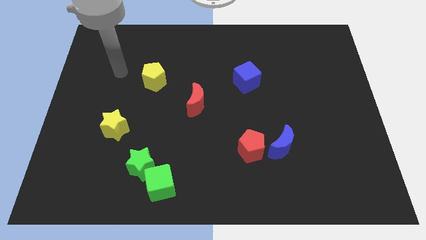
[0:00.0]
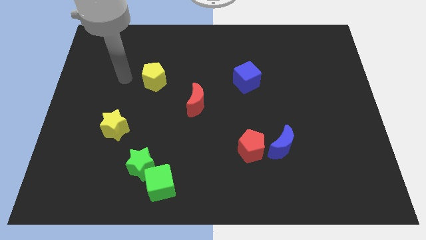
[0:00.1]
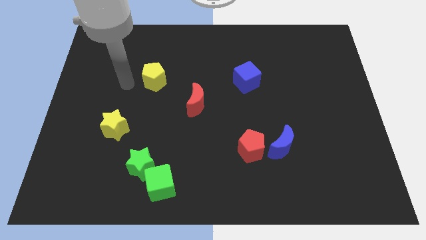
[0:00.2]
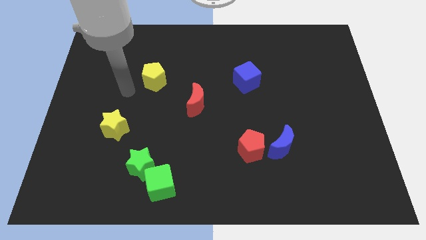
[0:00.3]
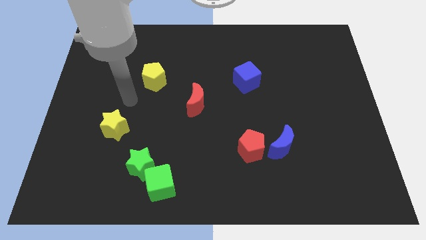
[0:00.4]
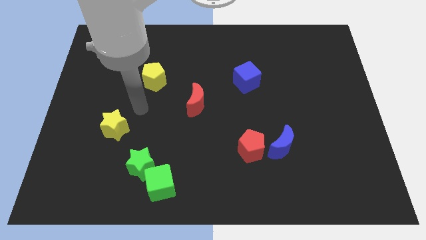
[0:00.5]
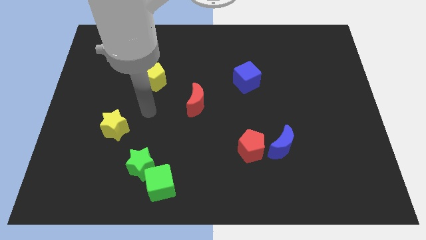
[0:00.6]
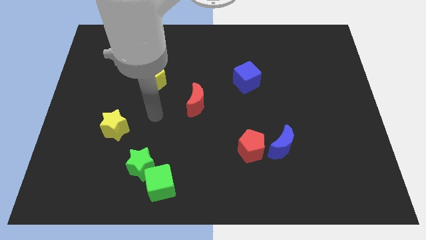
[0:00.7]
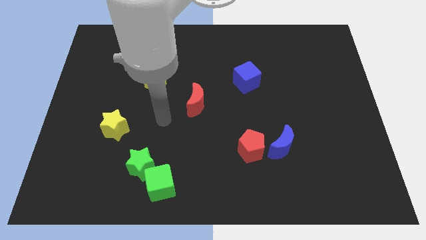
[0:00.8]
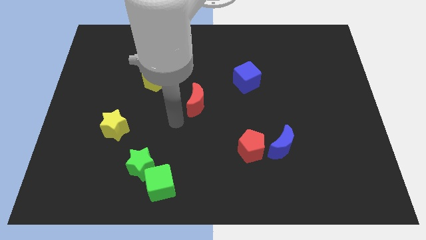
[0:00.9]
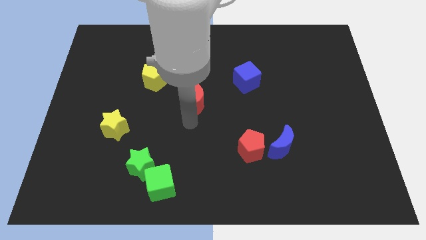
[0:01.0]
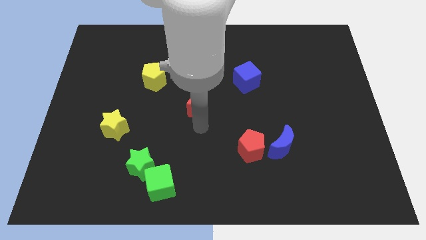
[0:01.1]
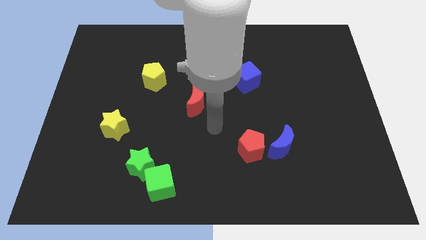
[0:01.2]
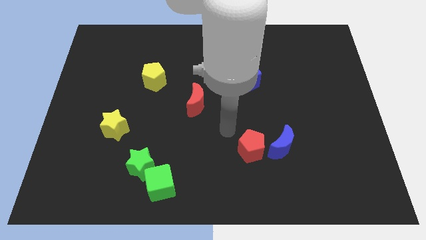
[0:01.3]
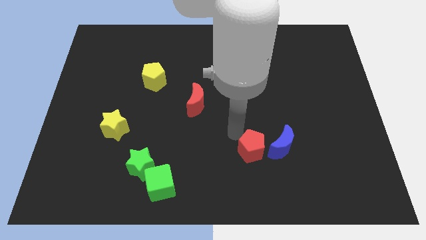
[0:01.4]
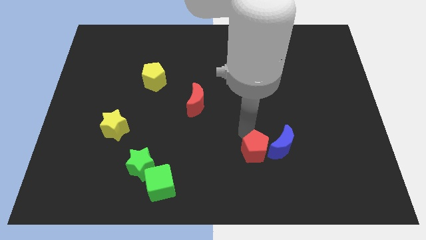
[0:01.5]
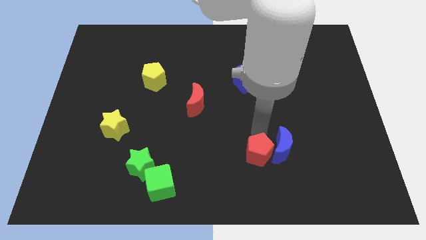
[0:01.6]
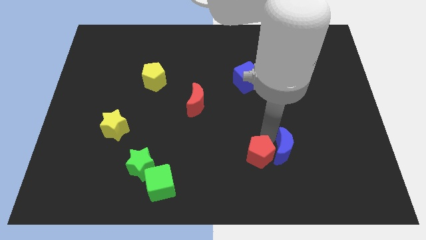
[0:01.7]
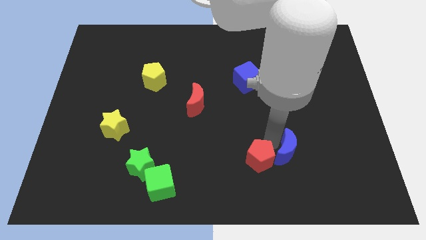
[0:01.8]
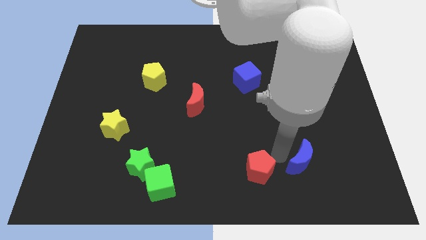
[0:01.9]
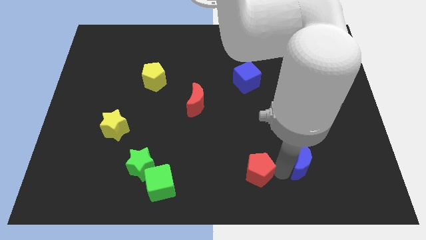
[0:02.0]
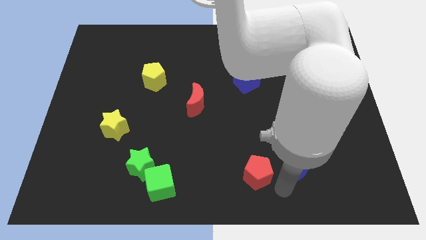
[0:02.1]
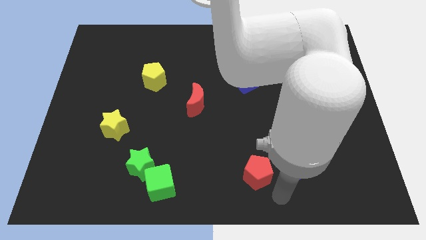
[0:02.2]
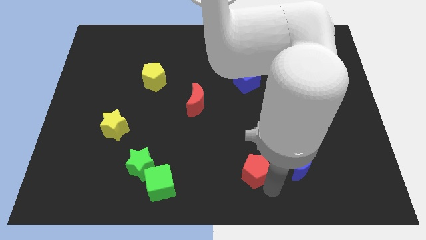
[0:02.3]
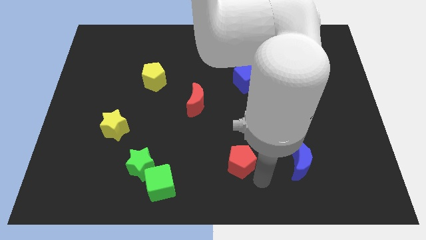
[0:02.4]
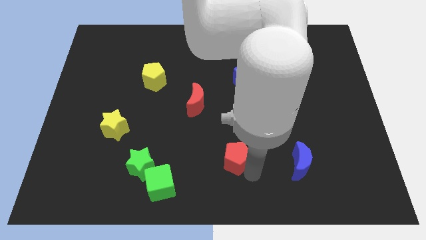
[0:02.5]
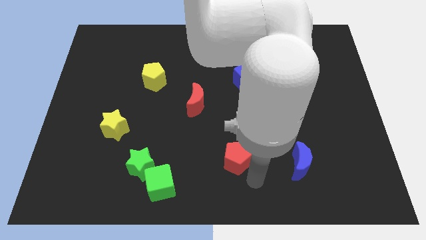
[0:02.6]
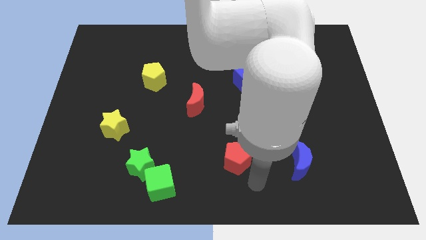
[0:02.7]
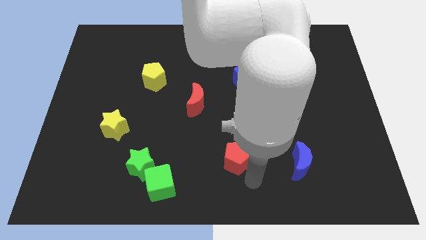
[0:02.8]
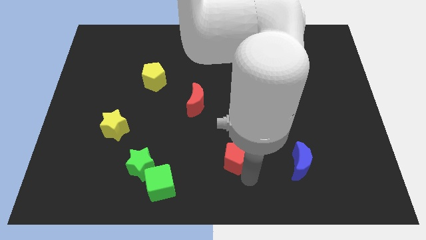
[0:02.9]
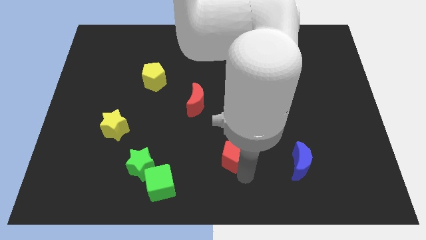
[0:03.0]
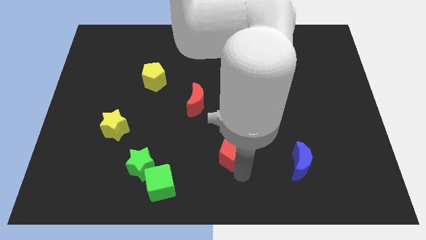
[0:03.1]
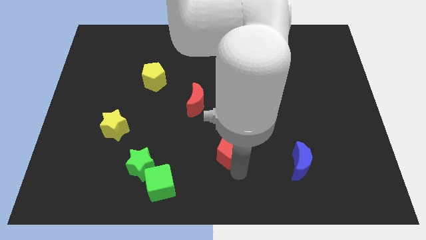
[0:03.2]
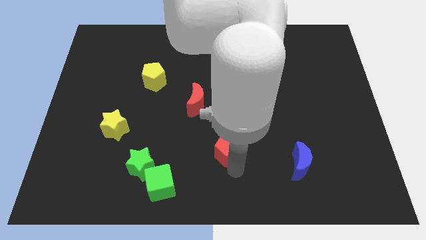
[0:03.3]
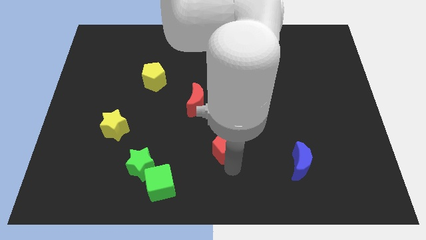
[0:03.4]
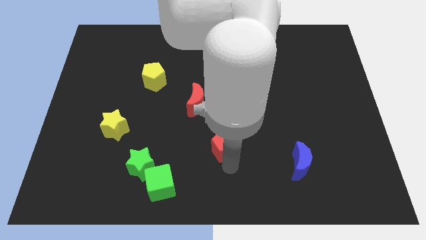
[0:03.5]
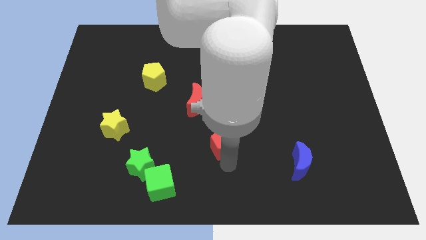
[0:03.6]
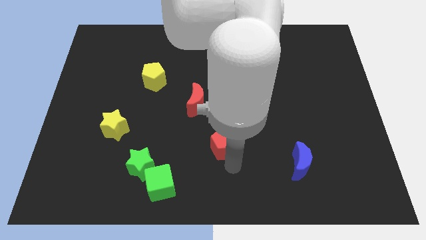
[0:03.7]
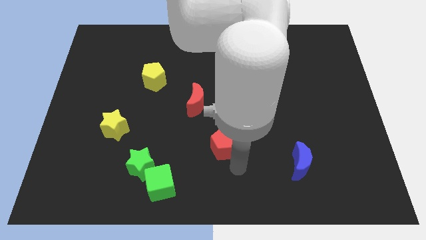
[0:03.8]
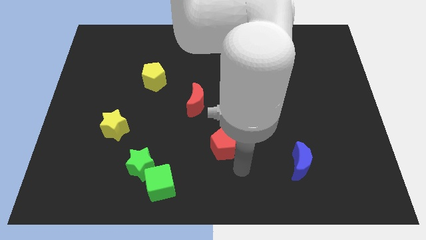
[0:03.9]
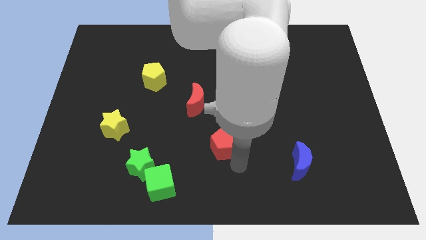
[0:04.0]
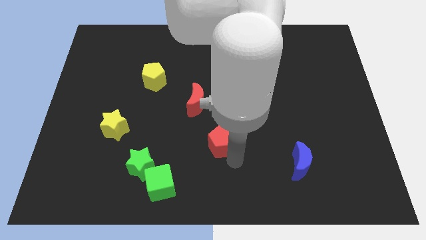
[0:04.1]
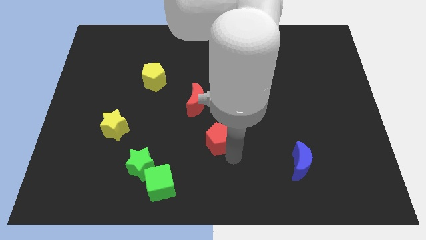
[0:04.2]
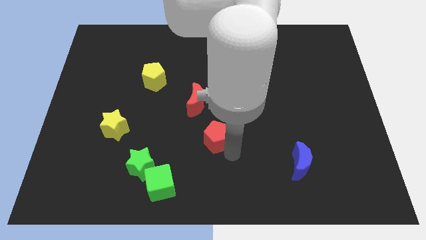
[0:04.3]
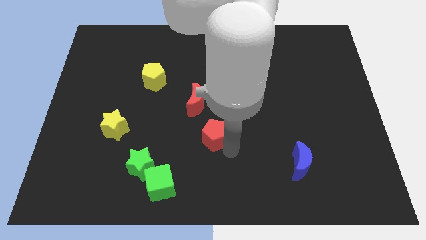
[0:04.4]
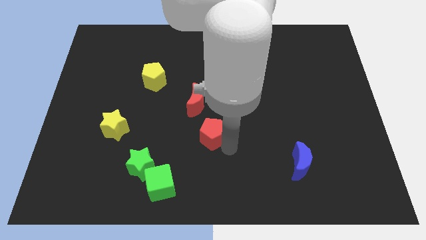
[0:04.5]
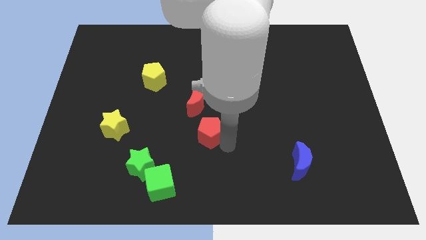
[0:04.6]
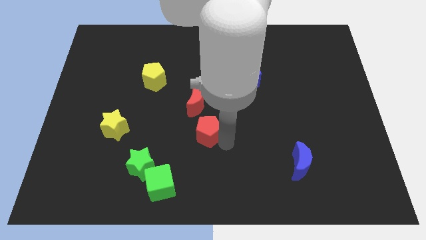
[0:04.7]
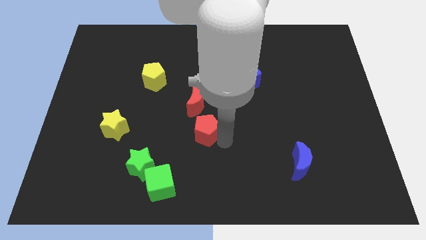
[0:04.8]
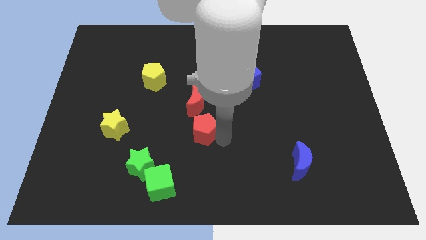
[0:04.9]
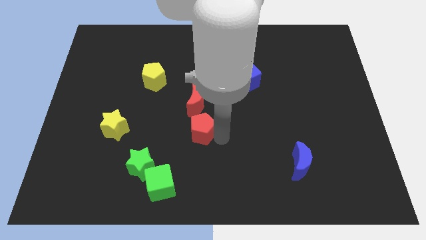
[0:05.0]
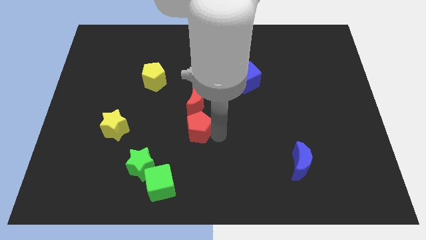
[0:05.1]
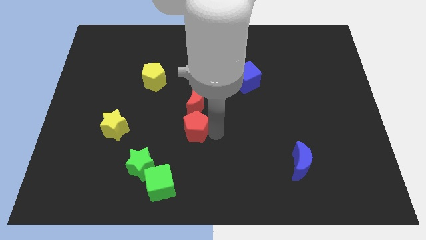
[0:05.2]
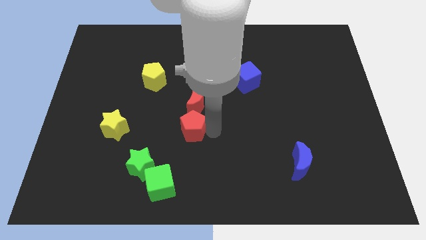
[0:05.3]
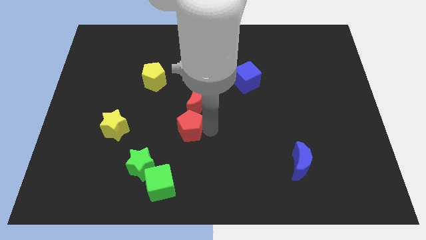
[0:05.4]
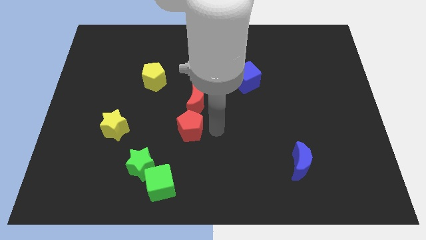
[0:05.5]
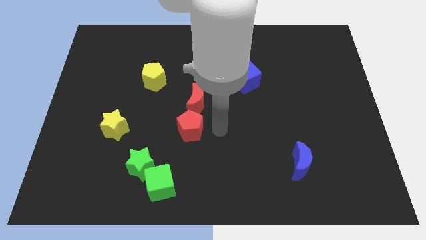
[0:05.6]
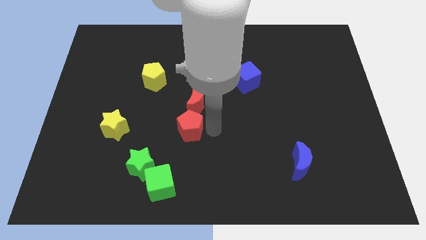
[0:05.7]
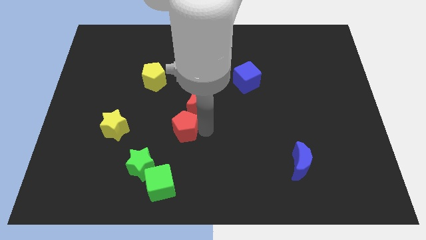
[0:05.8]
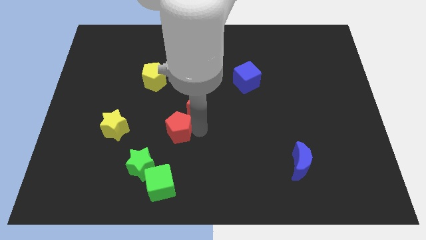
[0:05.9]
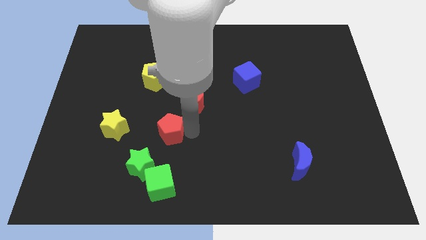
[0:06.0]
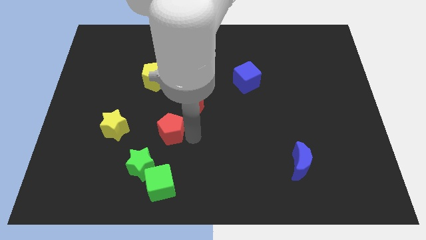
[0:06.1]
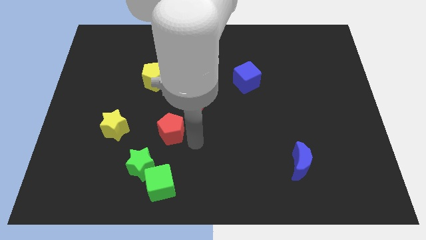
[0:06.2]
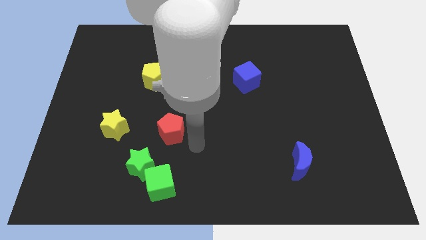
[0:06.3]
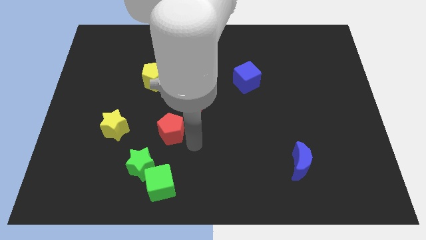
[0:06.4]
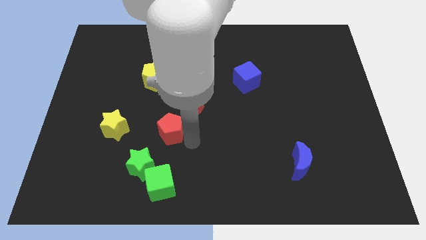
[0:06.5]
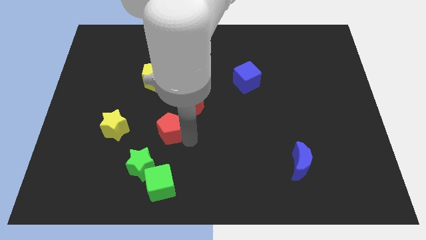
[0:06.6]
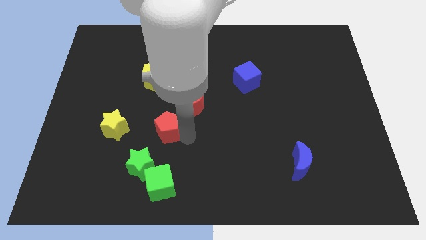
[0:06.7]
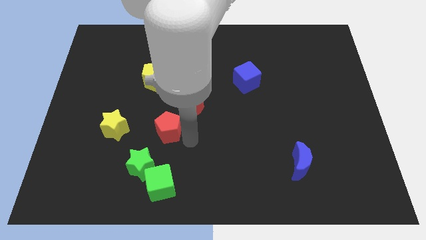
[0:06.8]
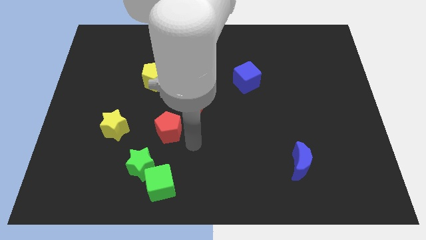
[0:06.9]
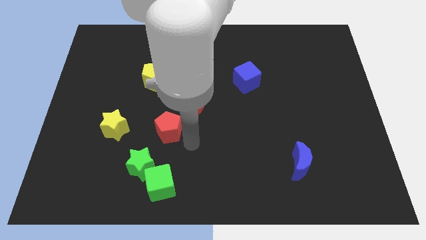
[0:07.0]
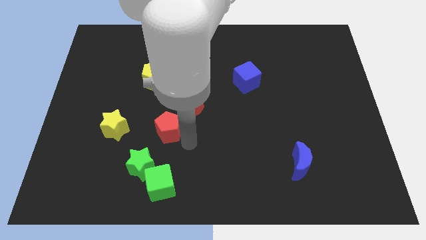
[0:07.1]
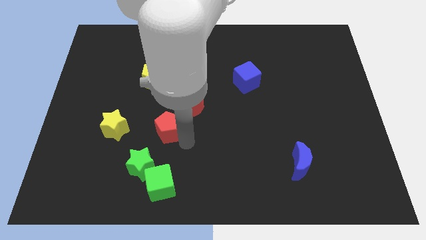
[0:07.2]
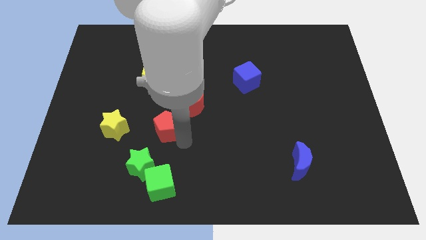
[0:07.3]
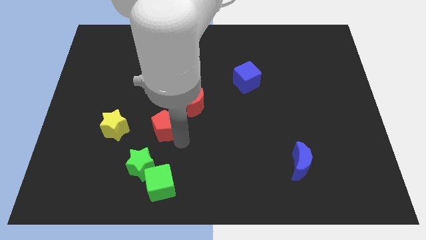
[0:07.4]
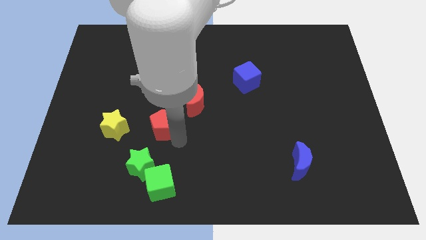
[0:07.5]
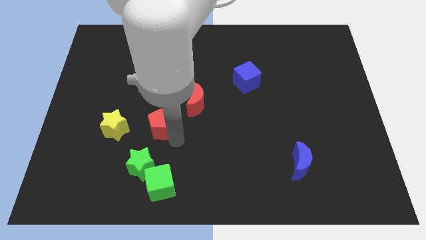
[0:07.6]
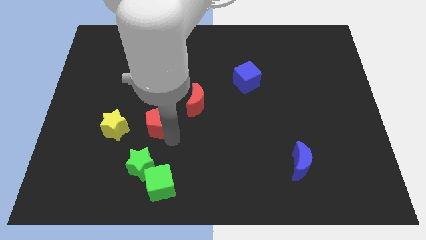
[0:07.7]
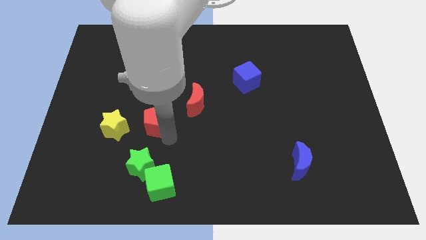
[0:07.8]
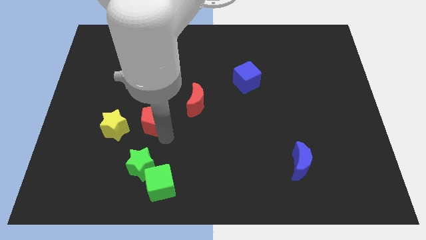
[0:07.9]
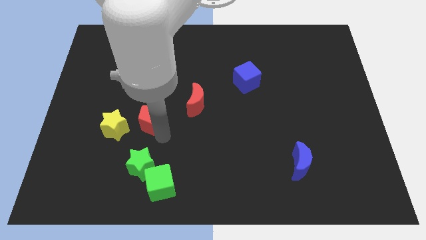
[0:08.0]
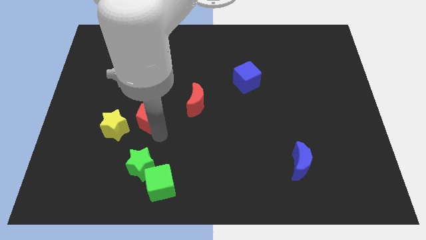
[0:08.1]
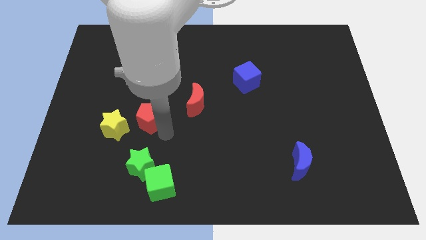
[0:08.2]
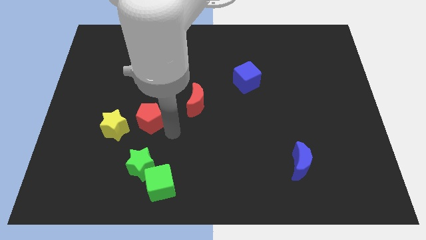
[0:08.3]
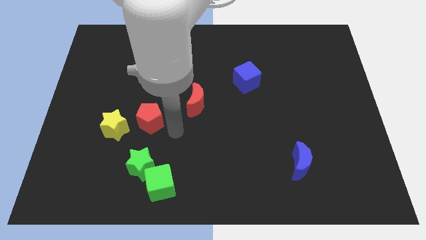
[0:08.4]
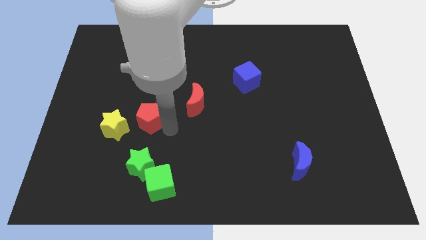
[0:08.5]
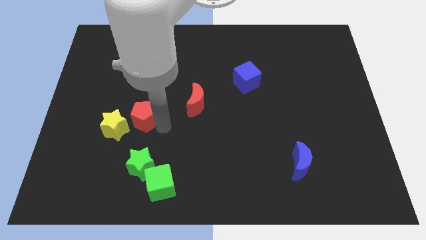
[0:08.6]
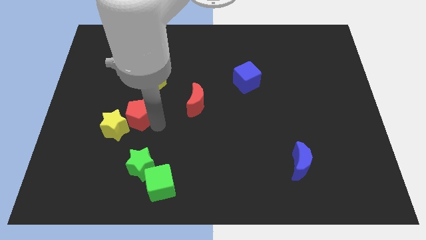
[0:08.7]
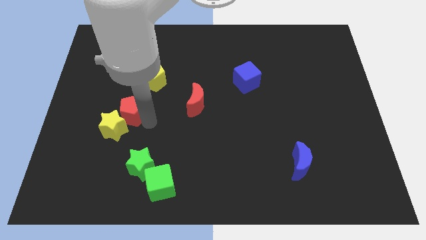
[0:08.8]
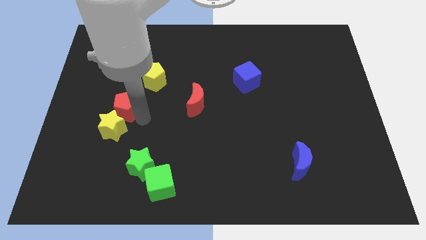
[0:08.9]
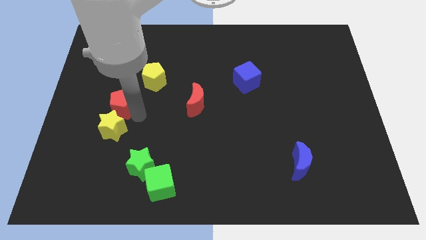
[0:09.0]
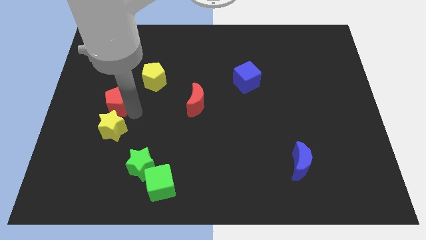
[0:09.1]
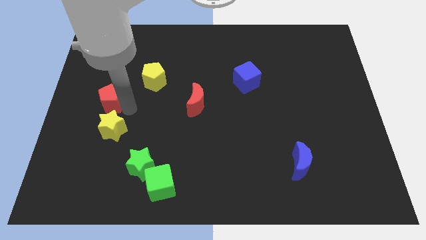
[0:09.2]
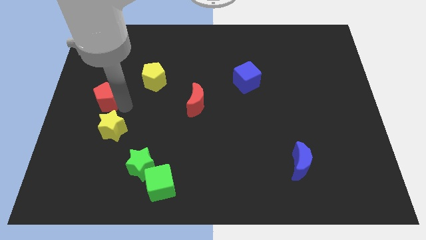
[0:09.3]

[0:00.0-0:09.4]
slide the red pentagon to the left side of the board
